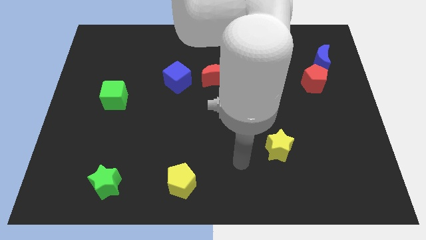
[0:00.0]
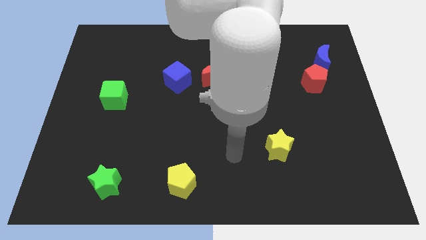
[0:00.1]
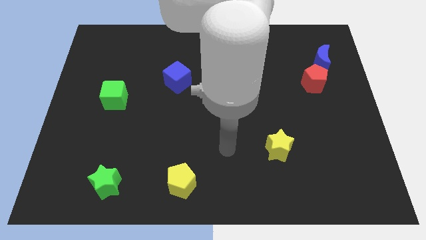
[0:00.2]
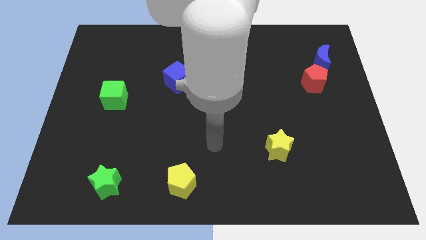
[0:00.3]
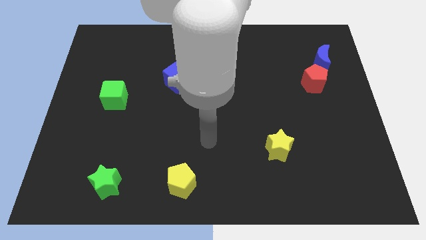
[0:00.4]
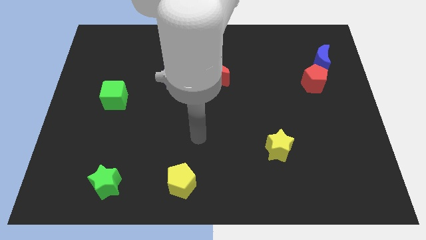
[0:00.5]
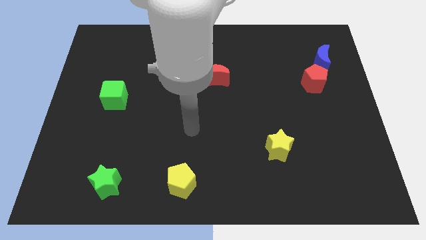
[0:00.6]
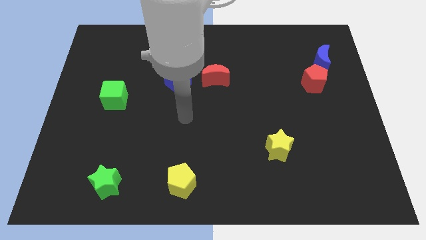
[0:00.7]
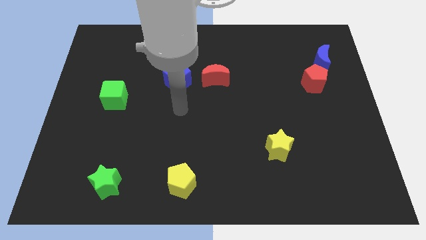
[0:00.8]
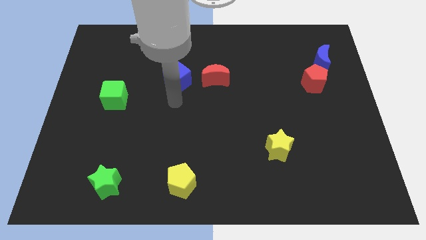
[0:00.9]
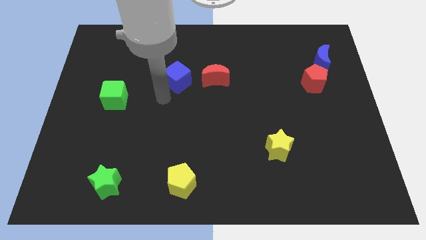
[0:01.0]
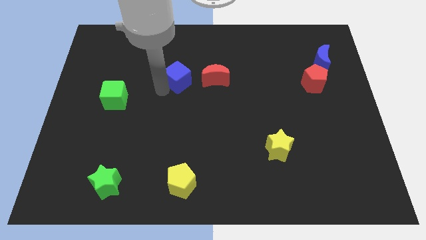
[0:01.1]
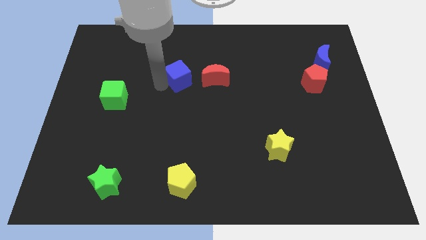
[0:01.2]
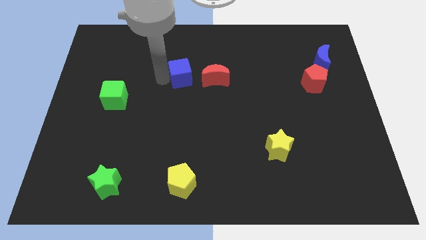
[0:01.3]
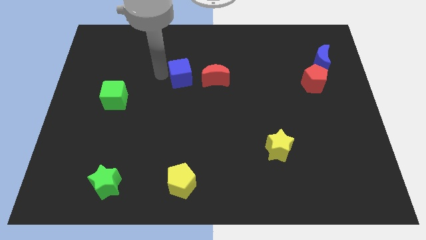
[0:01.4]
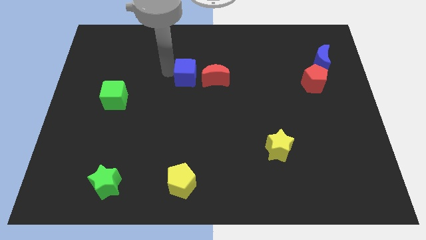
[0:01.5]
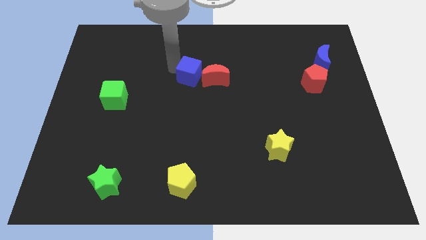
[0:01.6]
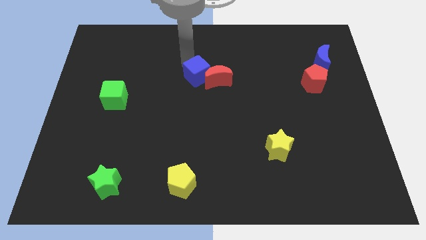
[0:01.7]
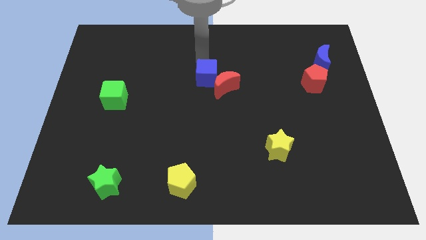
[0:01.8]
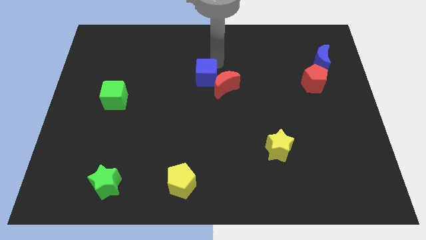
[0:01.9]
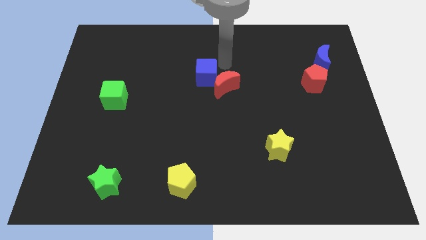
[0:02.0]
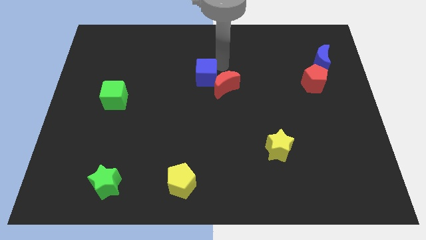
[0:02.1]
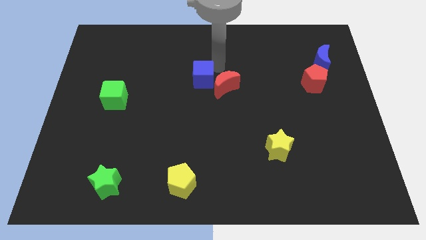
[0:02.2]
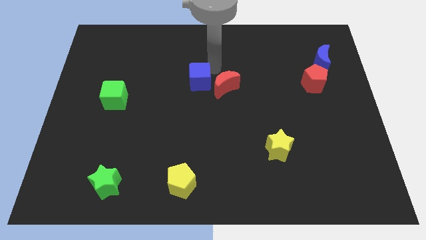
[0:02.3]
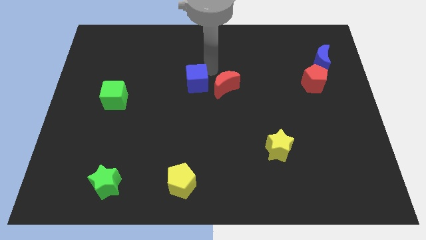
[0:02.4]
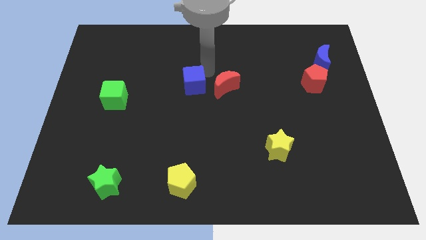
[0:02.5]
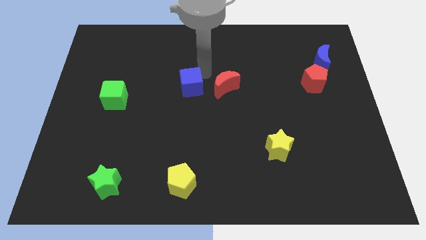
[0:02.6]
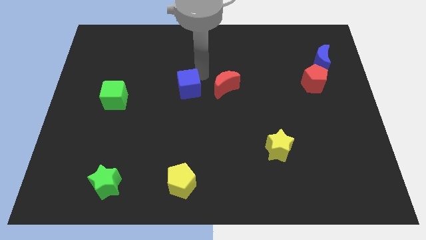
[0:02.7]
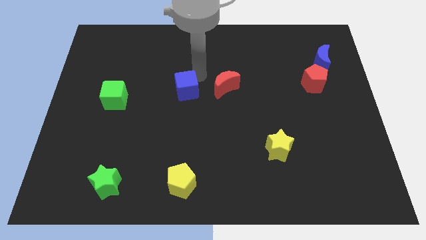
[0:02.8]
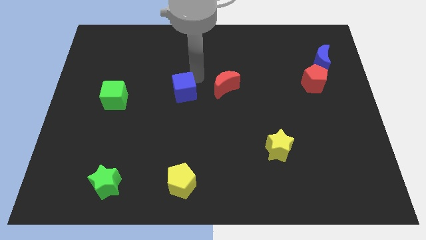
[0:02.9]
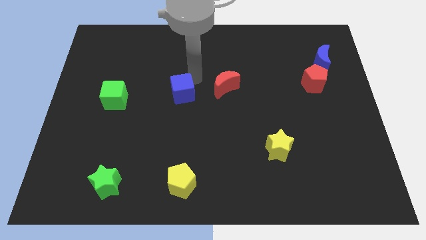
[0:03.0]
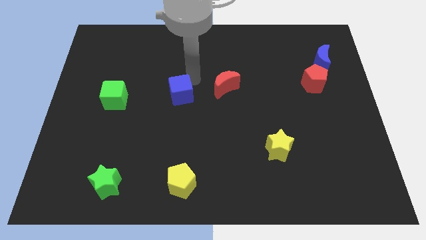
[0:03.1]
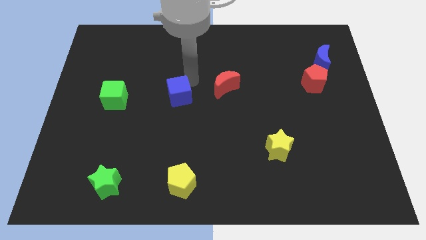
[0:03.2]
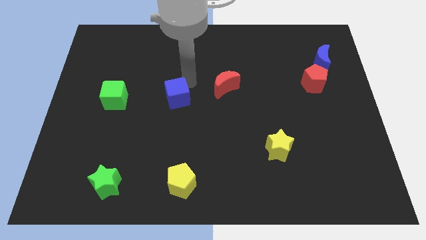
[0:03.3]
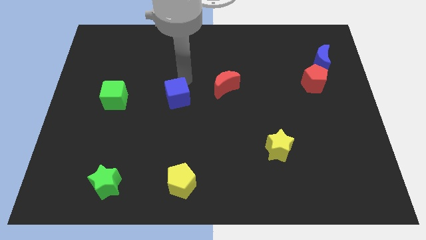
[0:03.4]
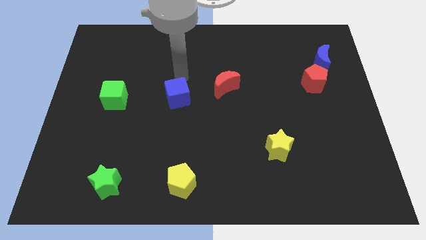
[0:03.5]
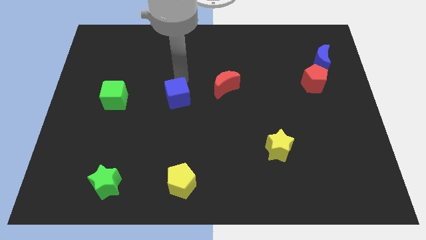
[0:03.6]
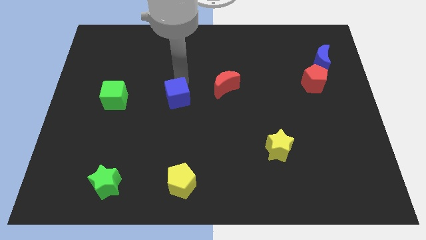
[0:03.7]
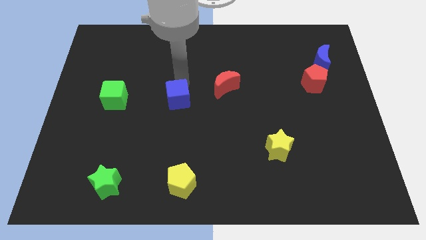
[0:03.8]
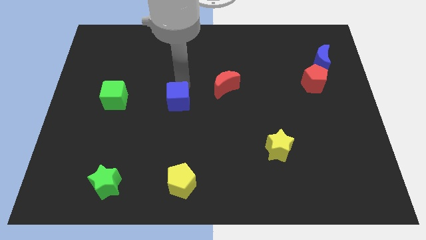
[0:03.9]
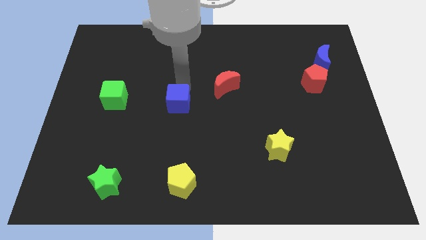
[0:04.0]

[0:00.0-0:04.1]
slide the blue cube down somewhat

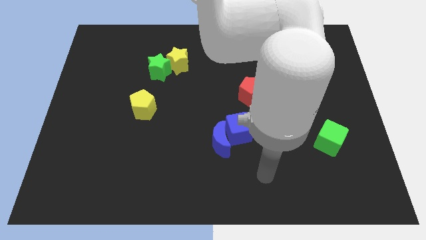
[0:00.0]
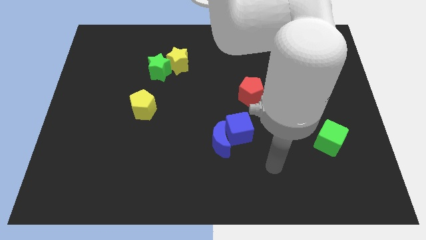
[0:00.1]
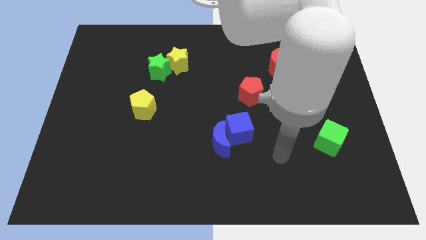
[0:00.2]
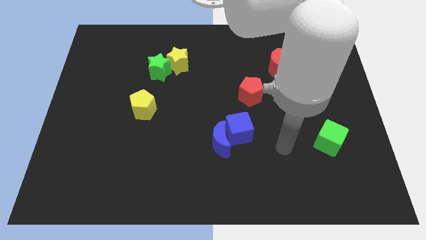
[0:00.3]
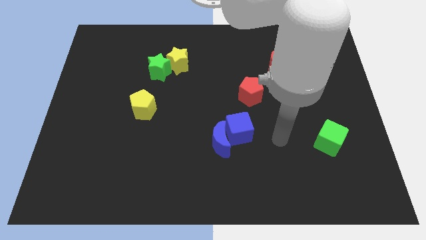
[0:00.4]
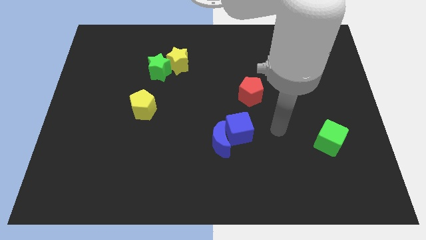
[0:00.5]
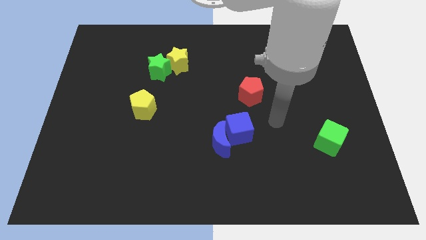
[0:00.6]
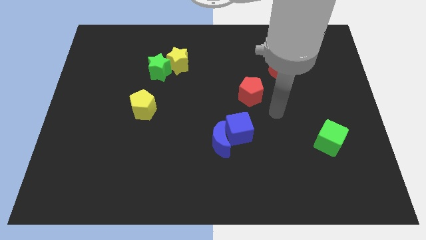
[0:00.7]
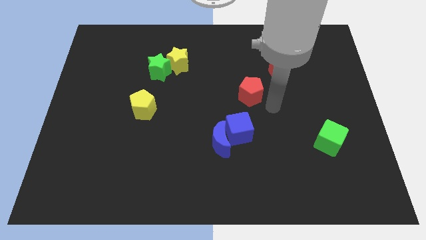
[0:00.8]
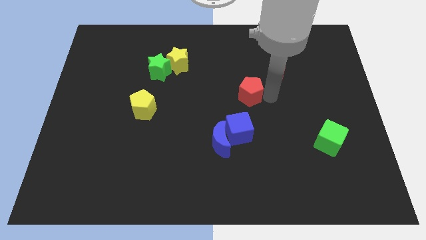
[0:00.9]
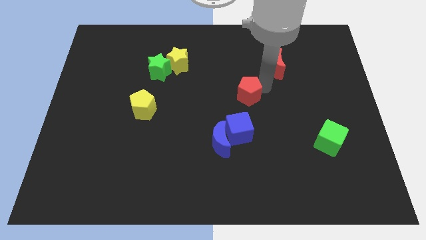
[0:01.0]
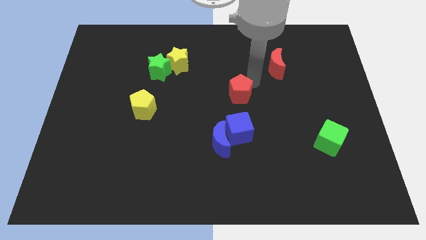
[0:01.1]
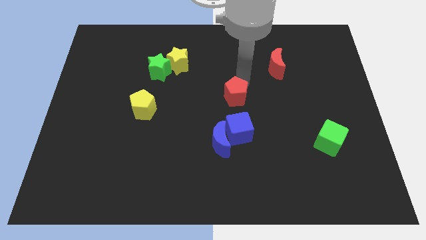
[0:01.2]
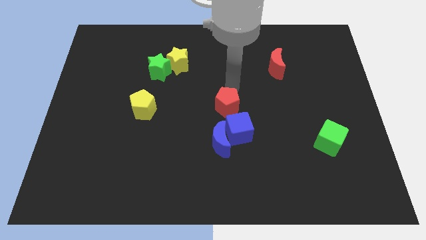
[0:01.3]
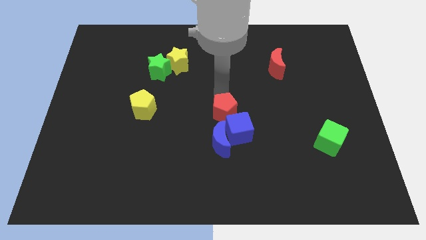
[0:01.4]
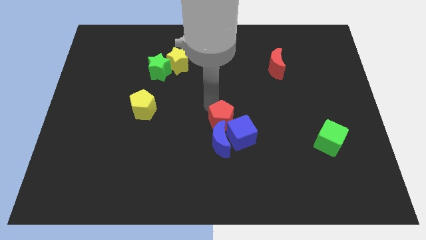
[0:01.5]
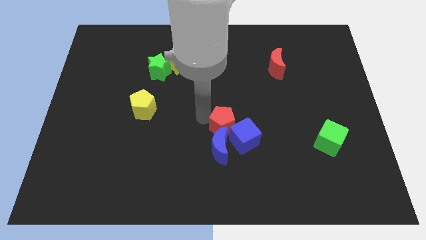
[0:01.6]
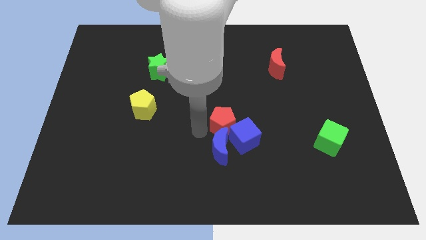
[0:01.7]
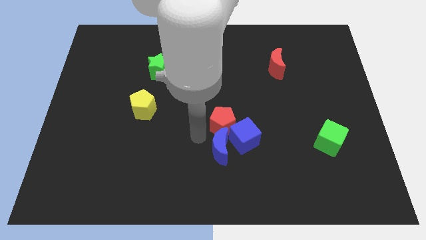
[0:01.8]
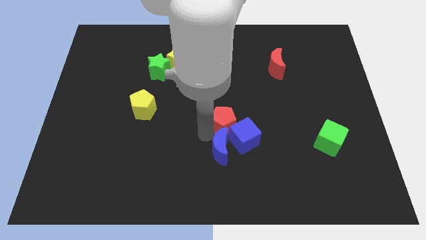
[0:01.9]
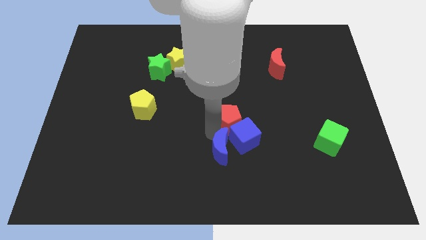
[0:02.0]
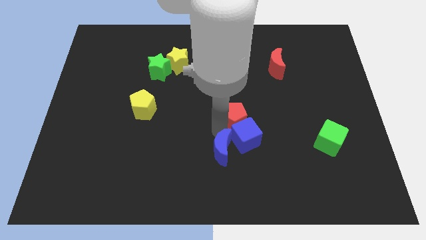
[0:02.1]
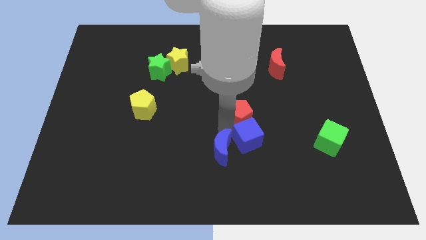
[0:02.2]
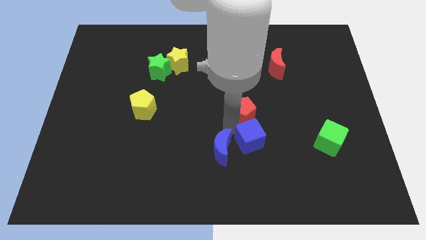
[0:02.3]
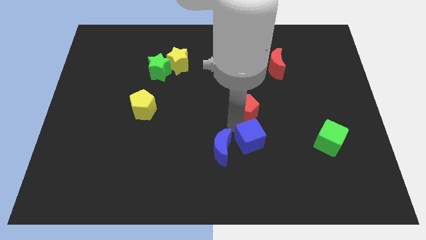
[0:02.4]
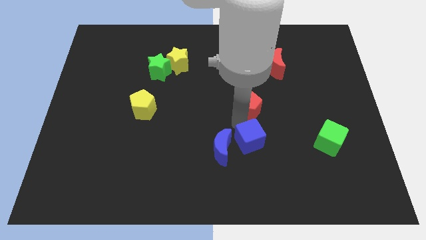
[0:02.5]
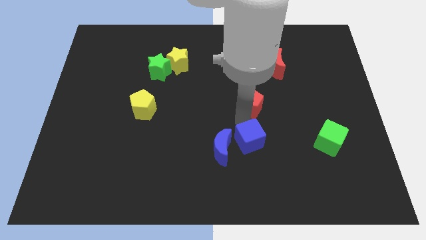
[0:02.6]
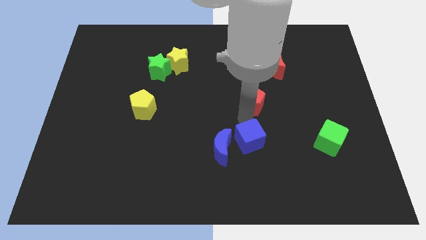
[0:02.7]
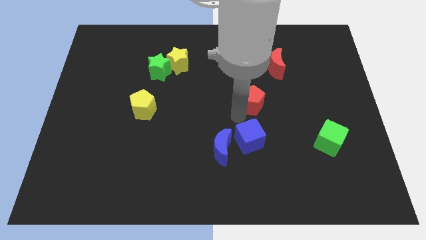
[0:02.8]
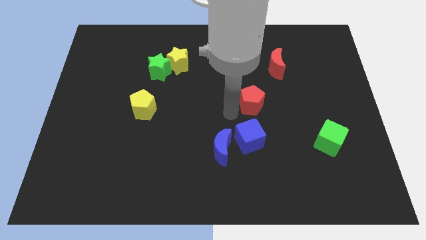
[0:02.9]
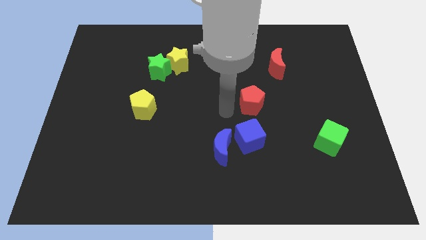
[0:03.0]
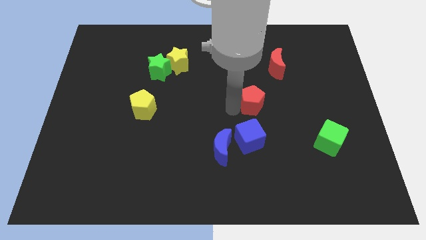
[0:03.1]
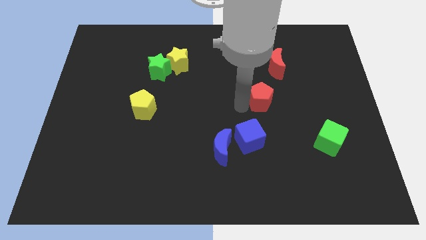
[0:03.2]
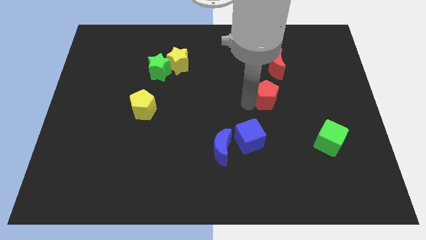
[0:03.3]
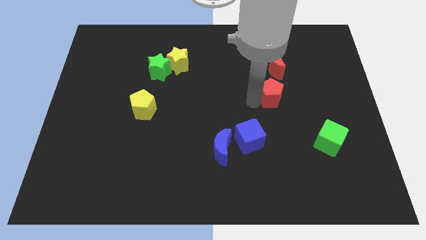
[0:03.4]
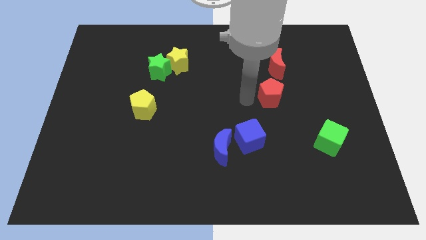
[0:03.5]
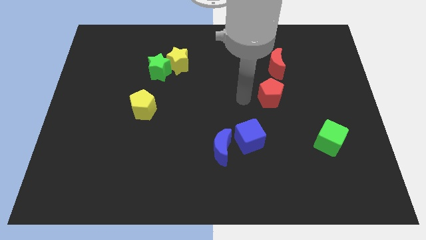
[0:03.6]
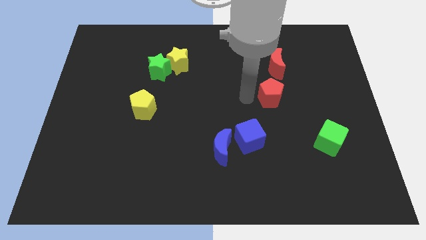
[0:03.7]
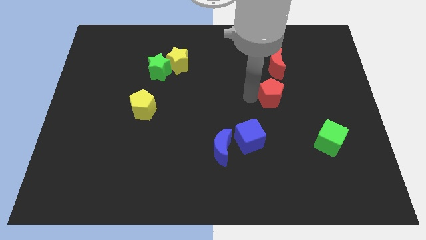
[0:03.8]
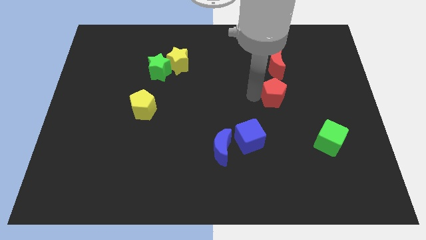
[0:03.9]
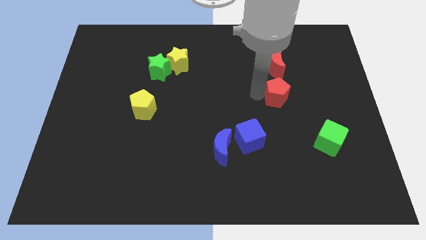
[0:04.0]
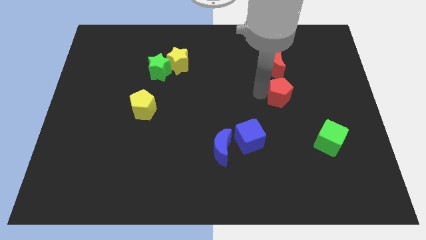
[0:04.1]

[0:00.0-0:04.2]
slightly slide the red pentagon right
